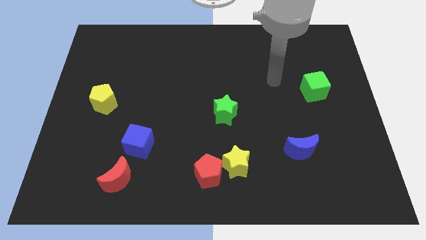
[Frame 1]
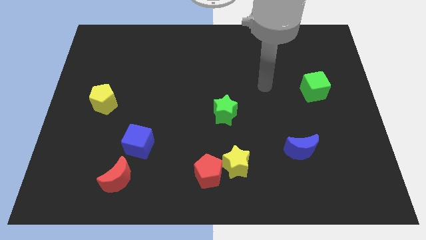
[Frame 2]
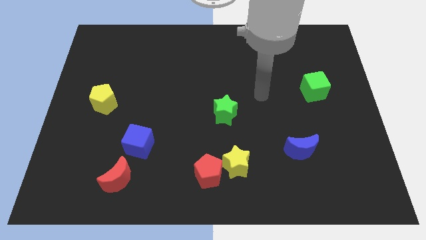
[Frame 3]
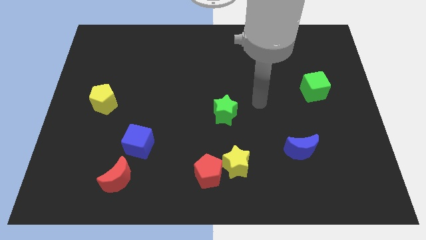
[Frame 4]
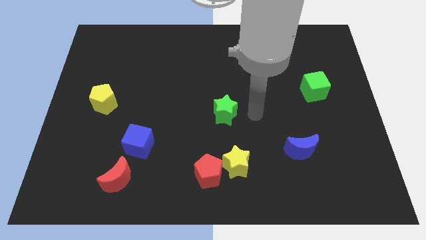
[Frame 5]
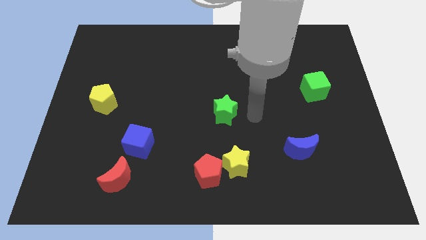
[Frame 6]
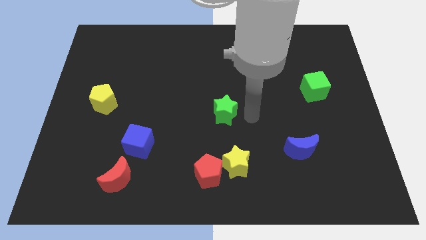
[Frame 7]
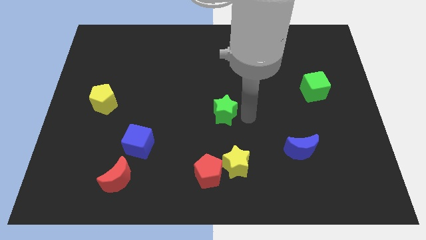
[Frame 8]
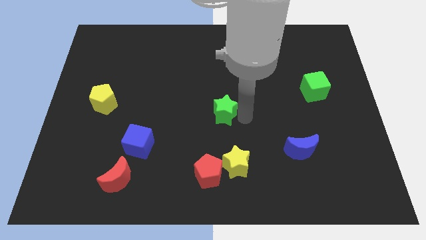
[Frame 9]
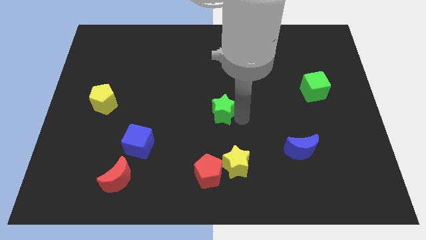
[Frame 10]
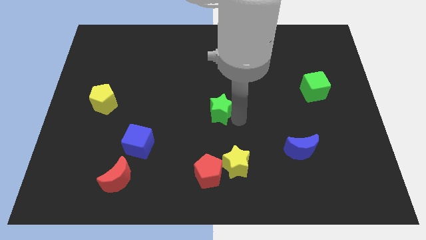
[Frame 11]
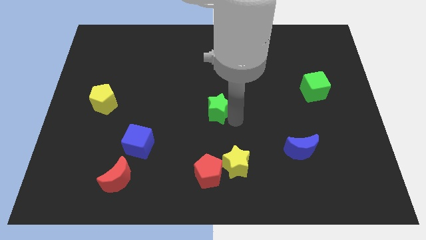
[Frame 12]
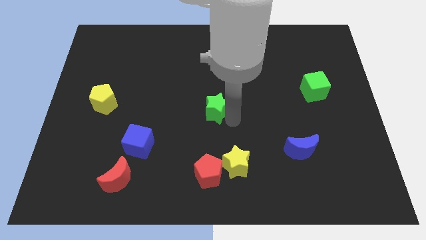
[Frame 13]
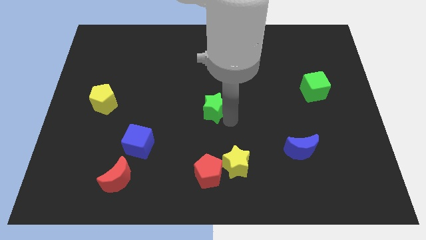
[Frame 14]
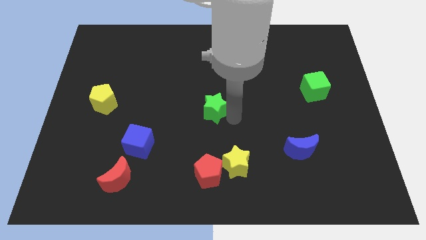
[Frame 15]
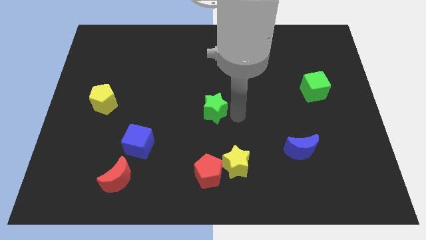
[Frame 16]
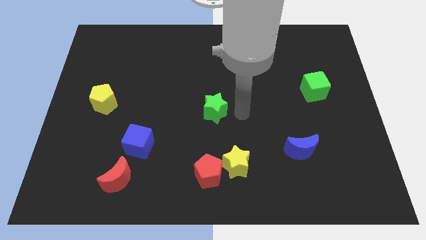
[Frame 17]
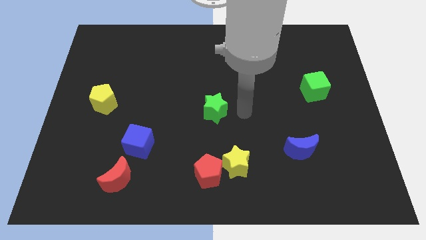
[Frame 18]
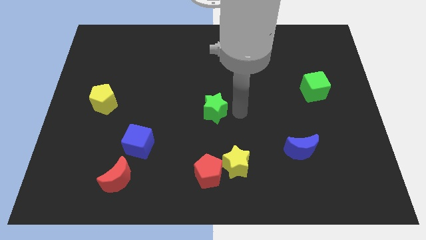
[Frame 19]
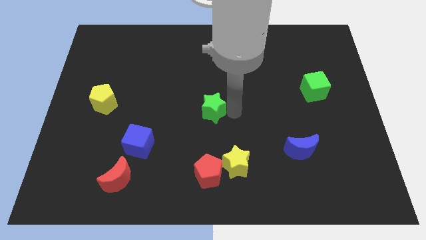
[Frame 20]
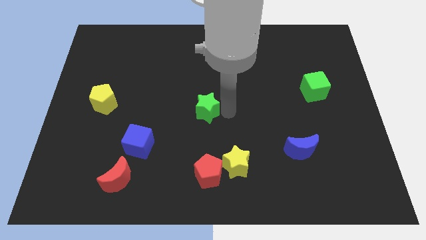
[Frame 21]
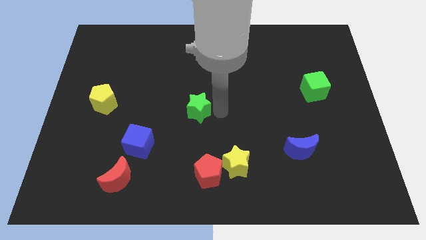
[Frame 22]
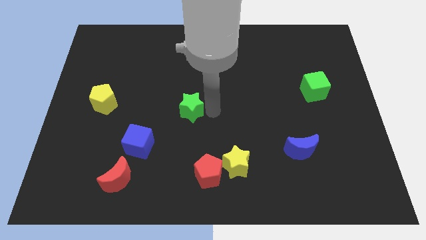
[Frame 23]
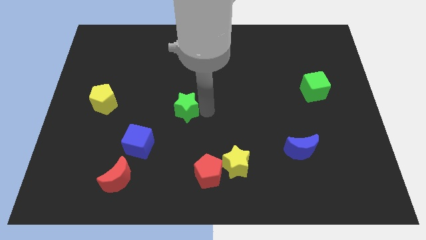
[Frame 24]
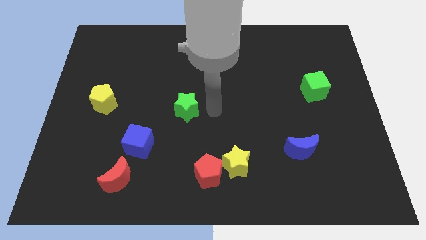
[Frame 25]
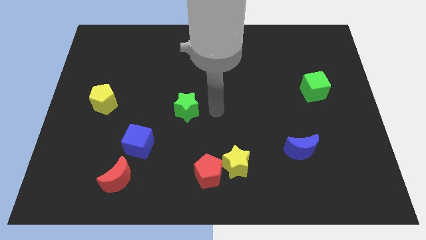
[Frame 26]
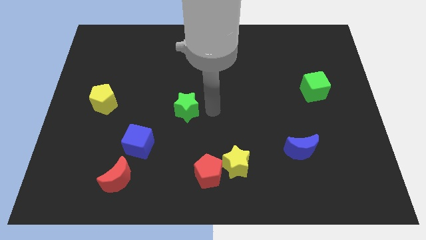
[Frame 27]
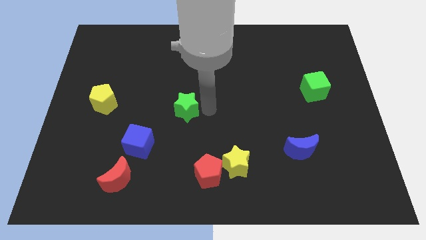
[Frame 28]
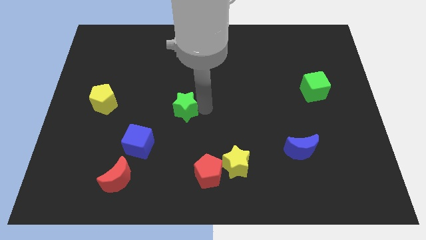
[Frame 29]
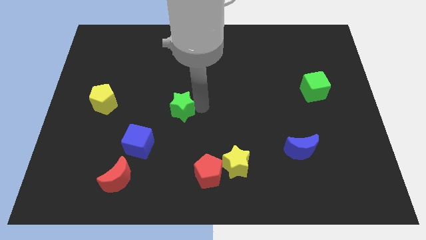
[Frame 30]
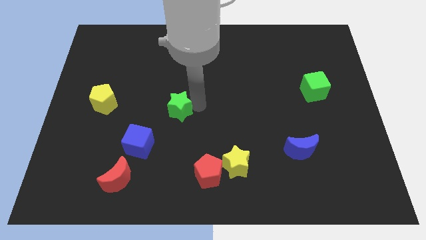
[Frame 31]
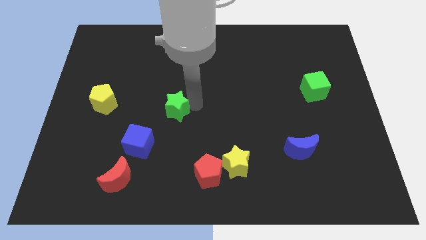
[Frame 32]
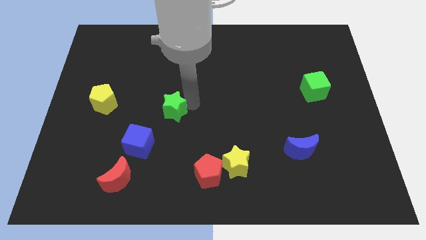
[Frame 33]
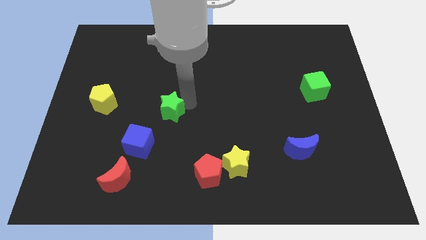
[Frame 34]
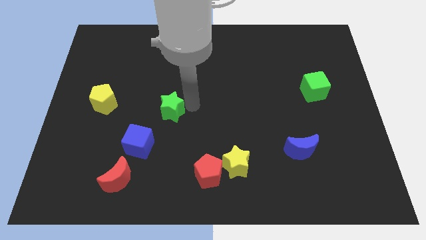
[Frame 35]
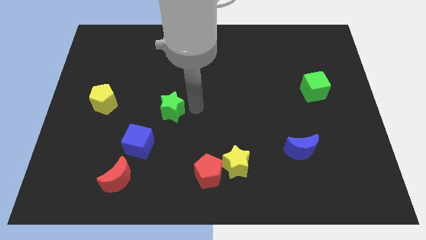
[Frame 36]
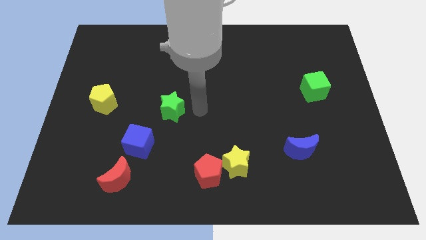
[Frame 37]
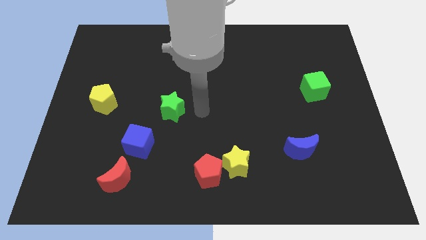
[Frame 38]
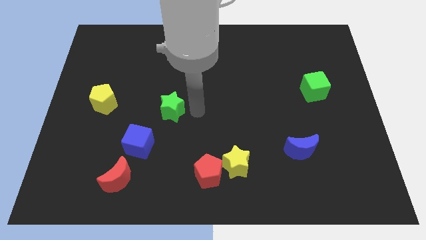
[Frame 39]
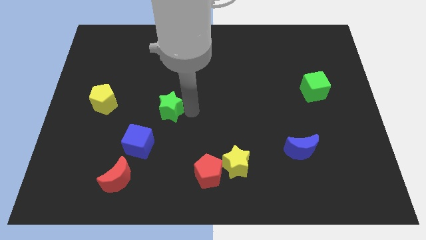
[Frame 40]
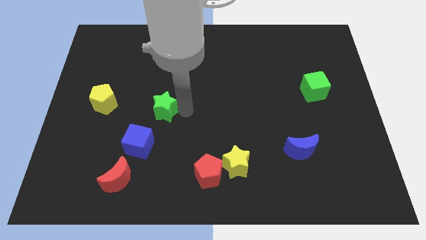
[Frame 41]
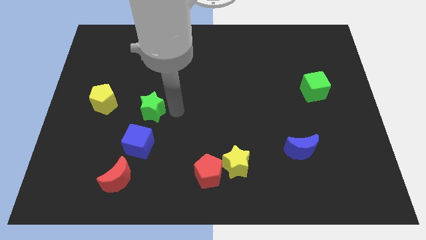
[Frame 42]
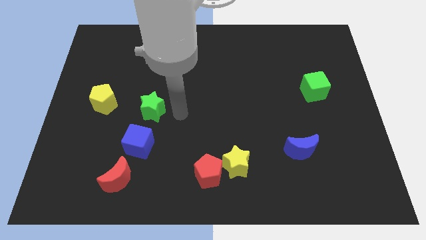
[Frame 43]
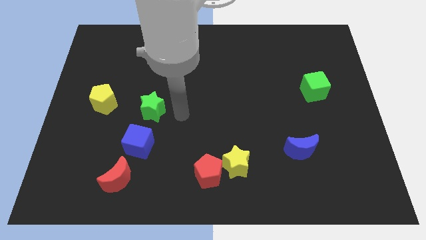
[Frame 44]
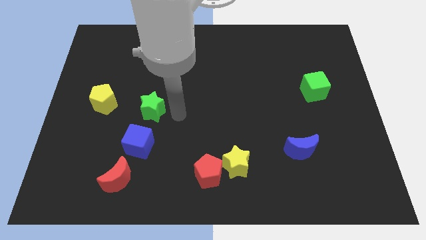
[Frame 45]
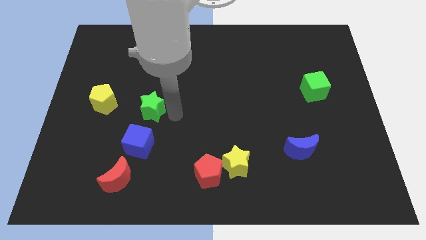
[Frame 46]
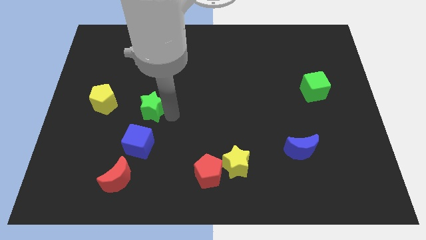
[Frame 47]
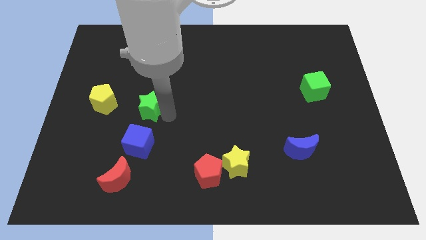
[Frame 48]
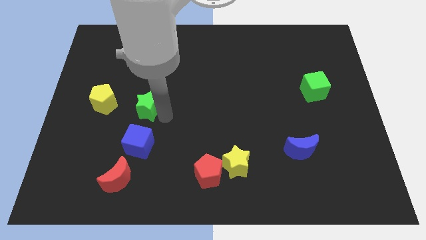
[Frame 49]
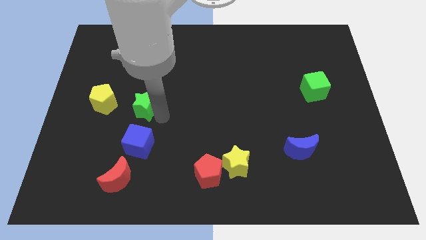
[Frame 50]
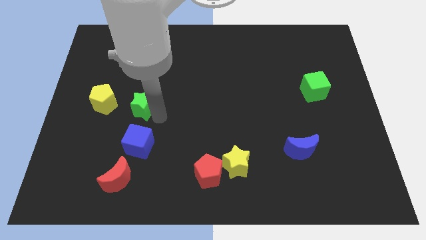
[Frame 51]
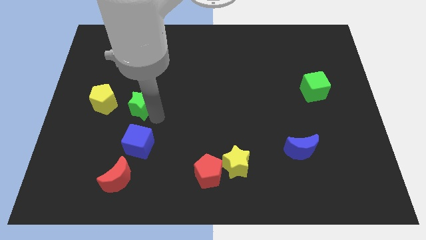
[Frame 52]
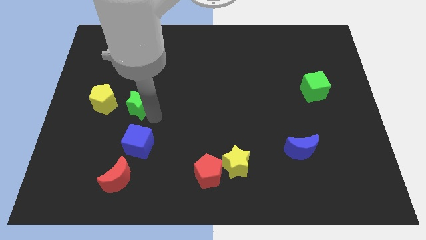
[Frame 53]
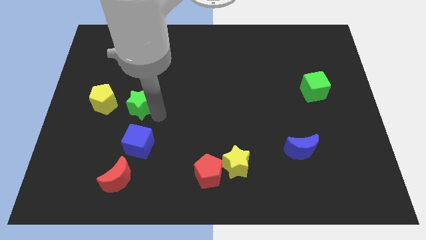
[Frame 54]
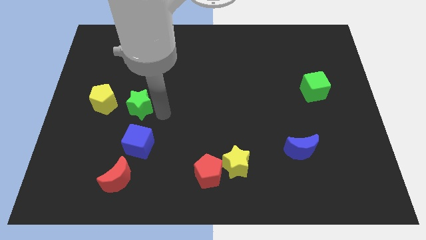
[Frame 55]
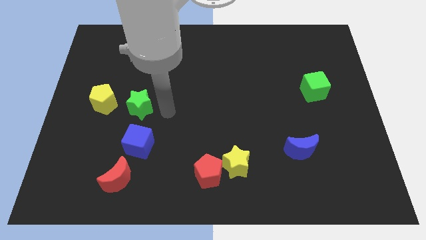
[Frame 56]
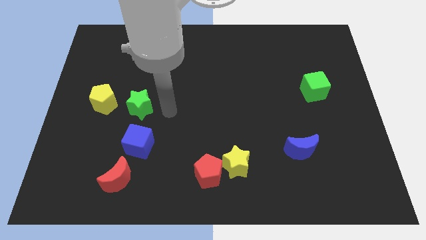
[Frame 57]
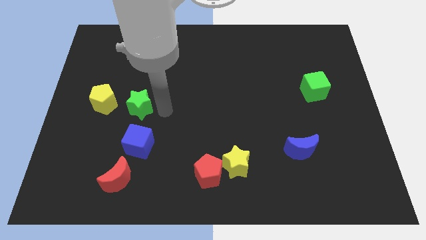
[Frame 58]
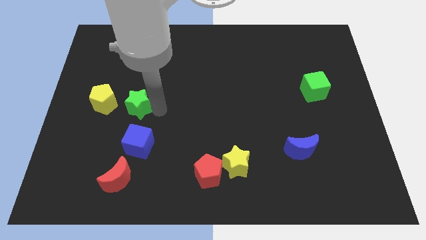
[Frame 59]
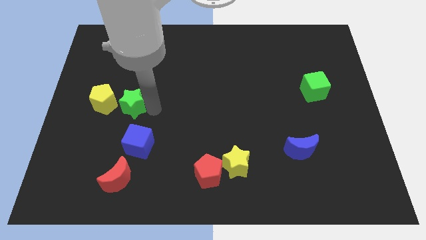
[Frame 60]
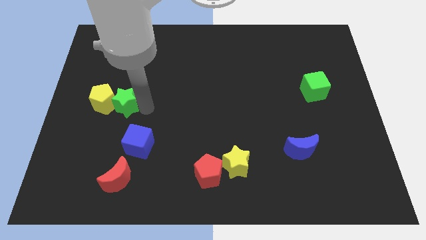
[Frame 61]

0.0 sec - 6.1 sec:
move the green star close to the yellow pentagon

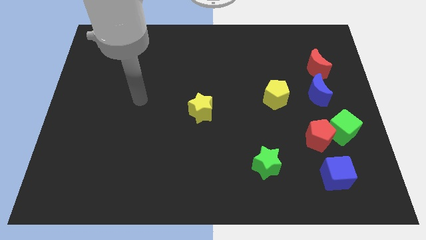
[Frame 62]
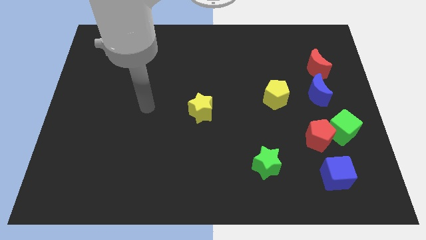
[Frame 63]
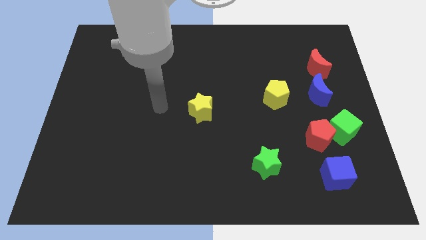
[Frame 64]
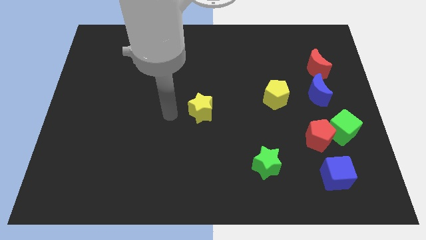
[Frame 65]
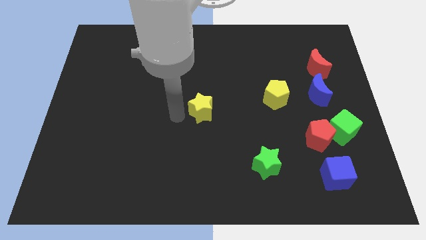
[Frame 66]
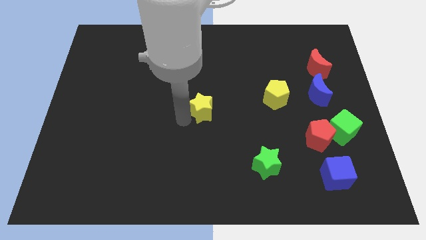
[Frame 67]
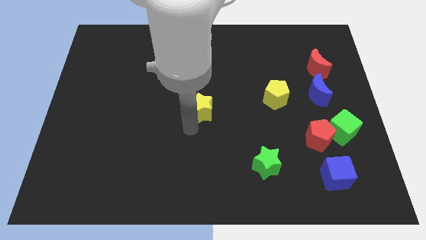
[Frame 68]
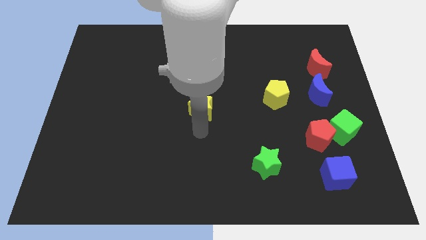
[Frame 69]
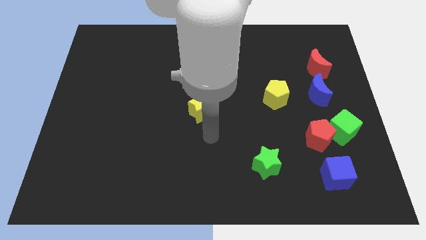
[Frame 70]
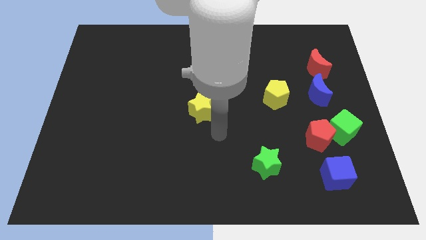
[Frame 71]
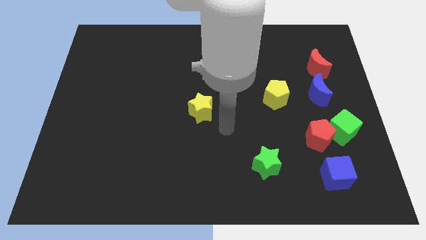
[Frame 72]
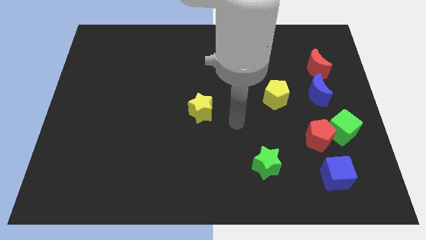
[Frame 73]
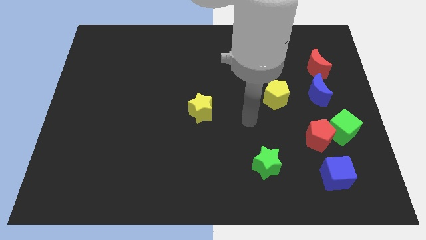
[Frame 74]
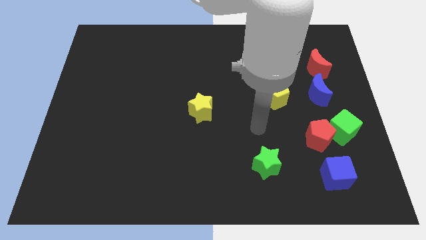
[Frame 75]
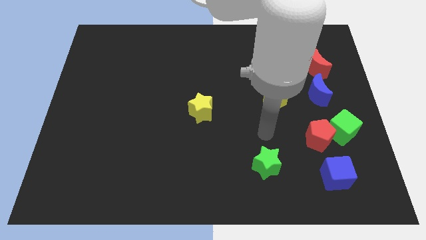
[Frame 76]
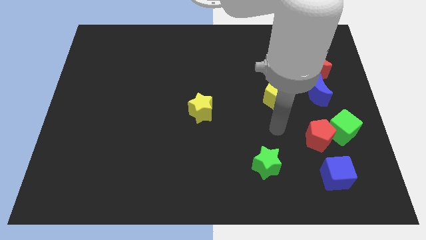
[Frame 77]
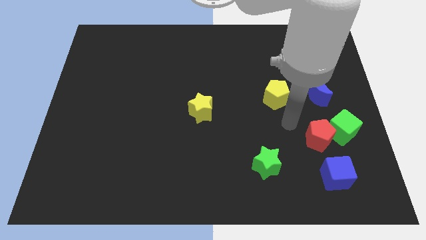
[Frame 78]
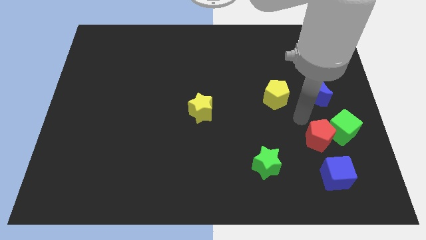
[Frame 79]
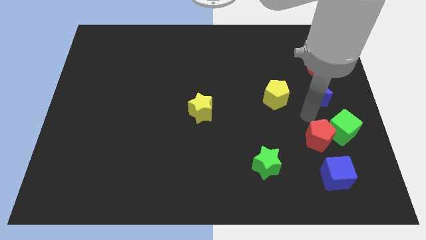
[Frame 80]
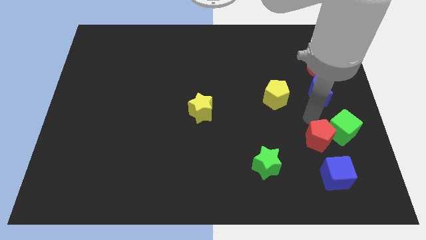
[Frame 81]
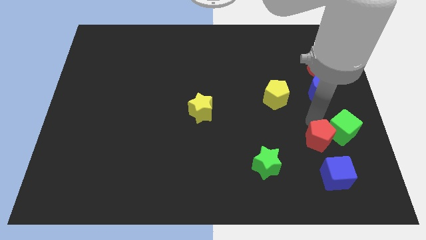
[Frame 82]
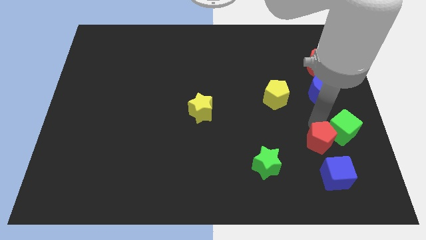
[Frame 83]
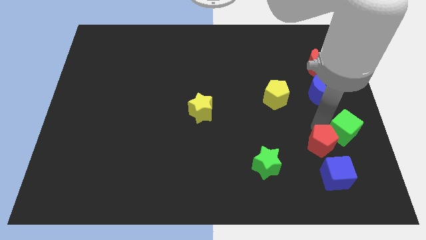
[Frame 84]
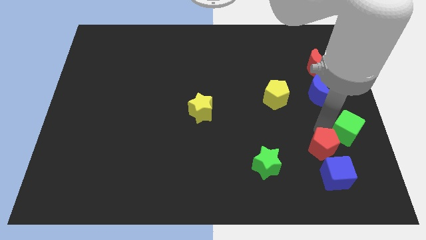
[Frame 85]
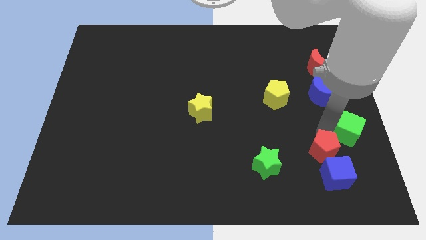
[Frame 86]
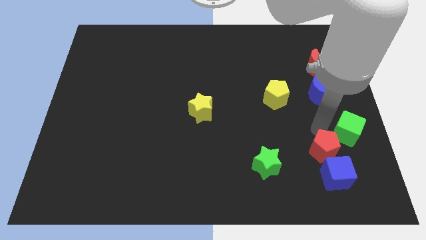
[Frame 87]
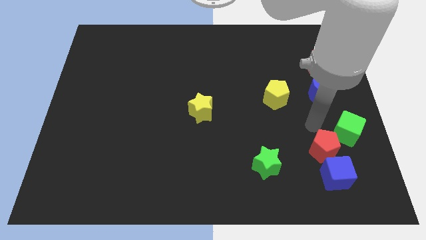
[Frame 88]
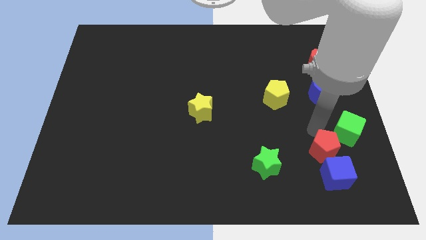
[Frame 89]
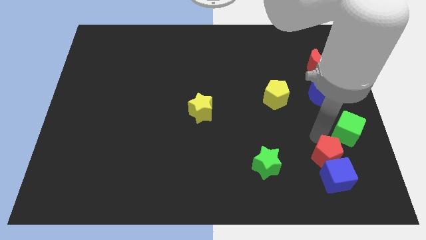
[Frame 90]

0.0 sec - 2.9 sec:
slide the red pentagon towards the blue cube
